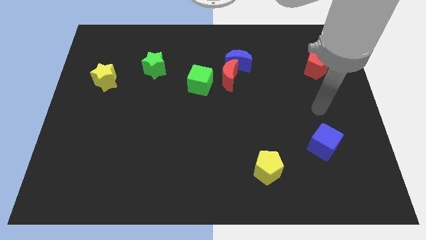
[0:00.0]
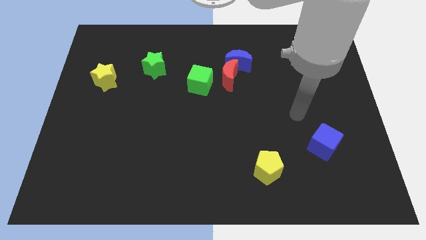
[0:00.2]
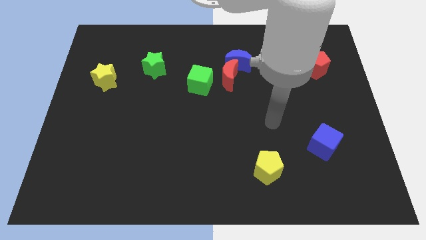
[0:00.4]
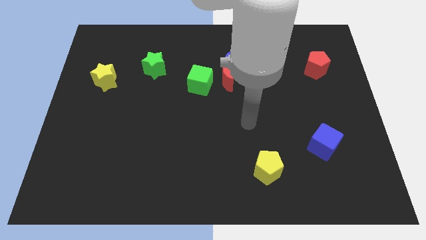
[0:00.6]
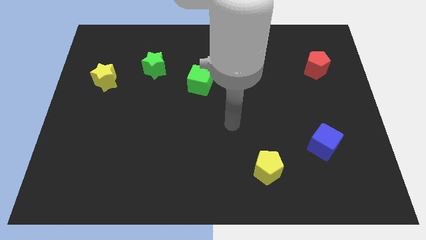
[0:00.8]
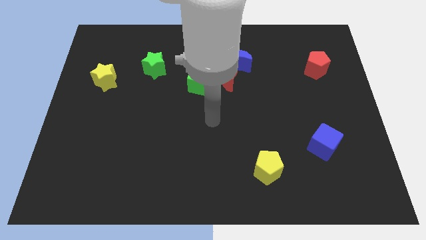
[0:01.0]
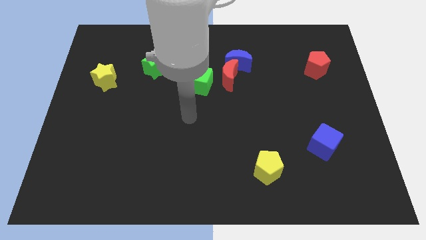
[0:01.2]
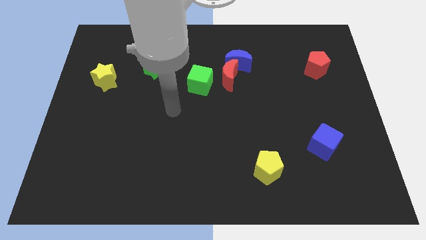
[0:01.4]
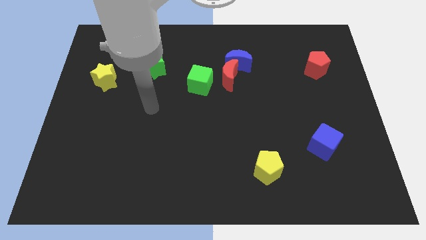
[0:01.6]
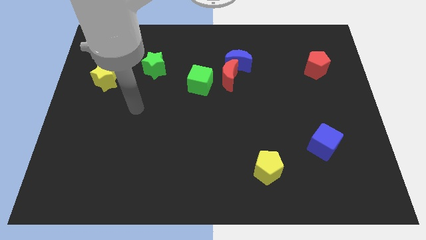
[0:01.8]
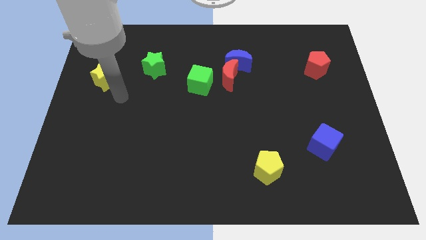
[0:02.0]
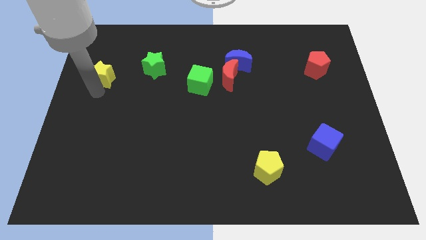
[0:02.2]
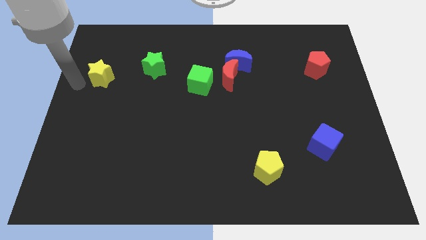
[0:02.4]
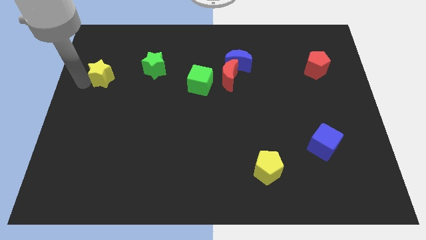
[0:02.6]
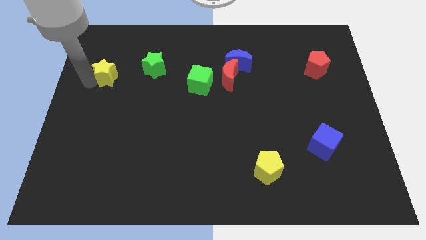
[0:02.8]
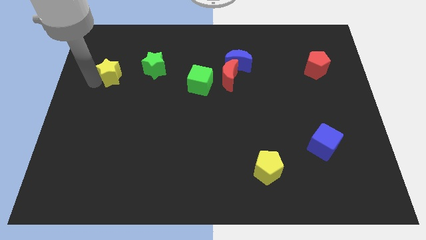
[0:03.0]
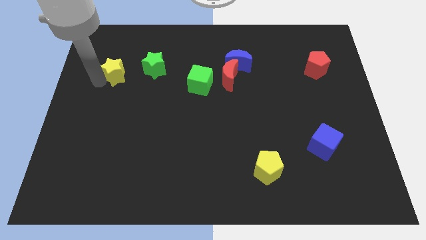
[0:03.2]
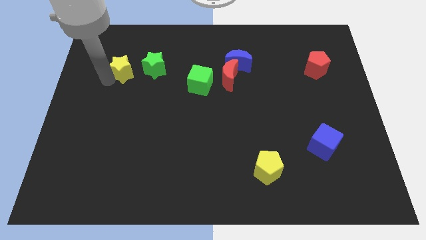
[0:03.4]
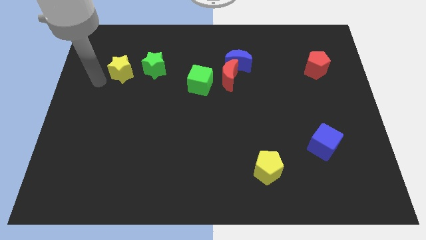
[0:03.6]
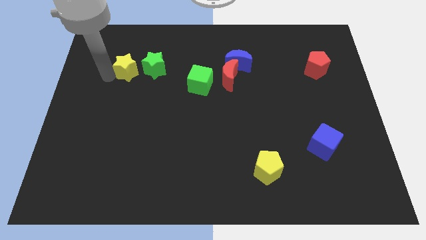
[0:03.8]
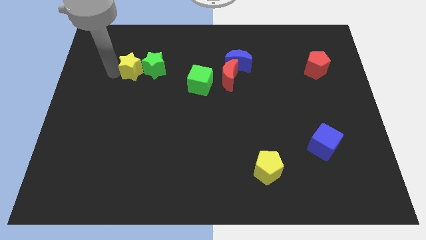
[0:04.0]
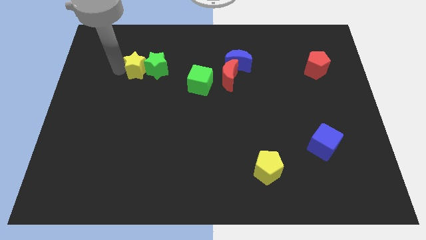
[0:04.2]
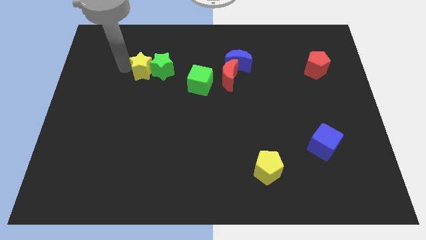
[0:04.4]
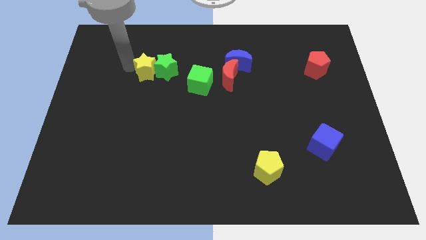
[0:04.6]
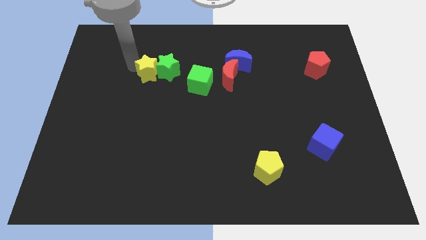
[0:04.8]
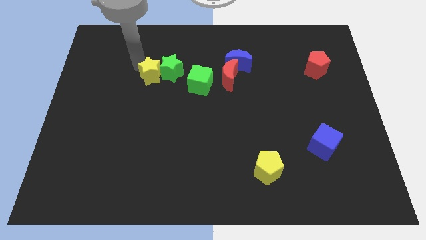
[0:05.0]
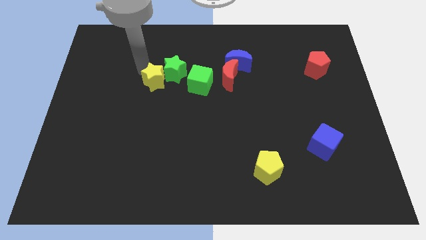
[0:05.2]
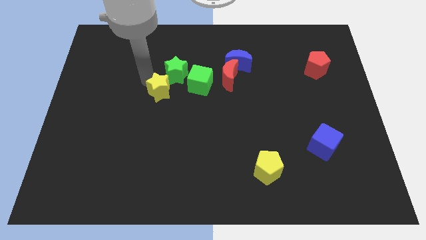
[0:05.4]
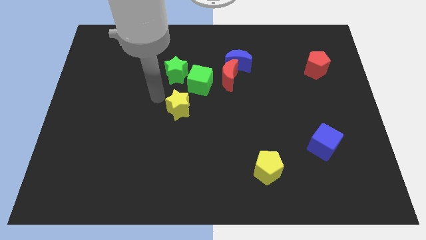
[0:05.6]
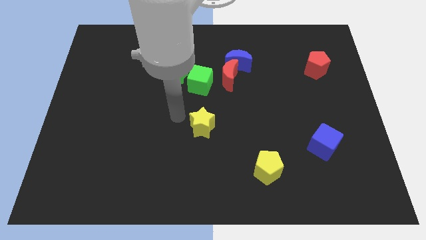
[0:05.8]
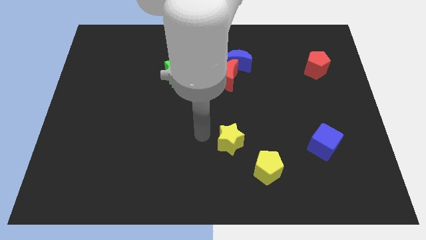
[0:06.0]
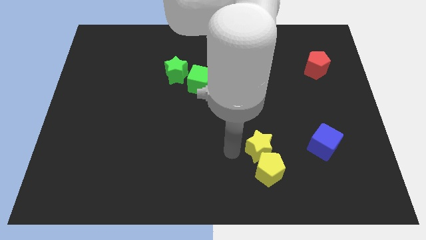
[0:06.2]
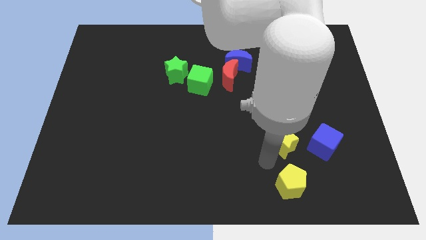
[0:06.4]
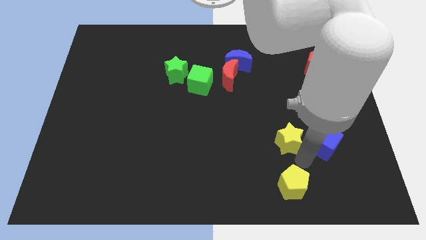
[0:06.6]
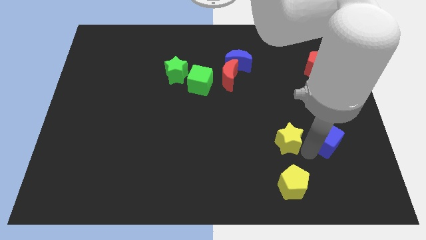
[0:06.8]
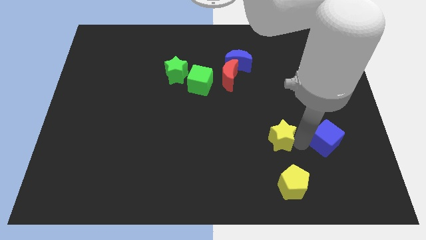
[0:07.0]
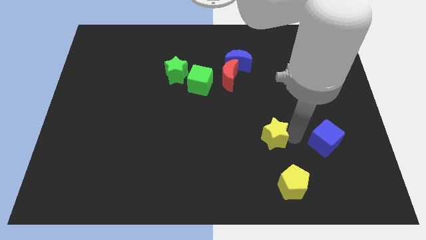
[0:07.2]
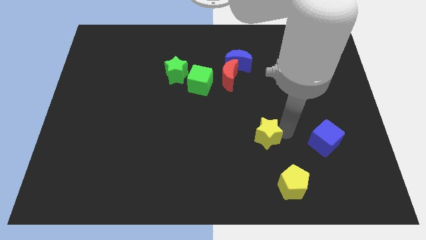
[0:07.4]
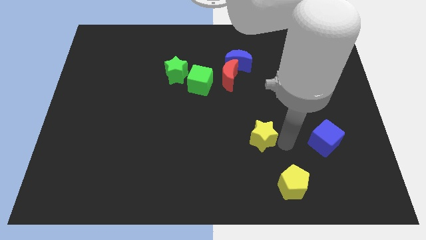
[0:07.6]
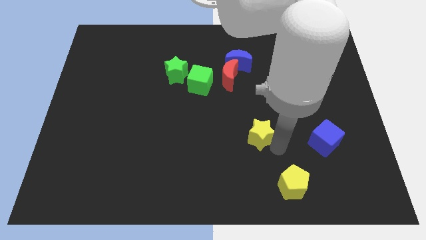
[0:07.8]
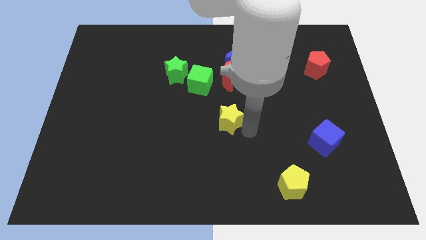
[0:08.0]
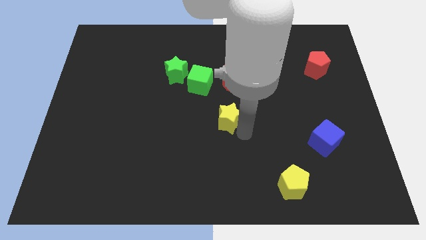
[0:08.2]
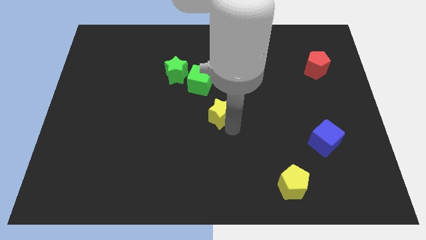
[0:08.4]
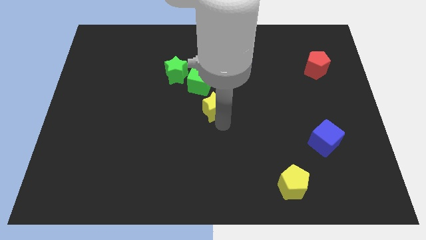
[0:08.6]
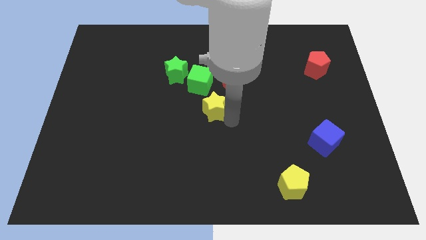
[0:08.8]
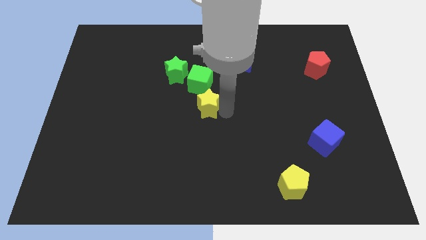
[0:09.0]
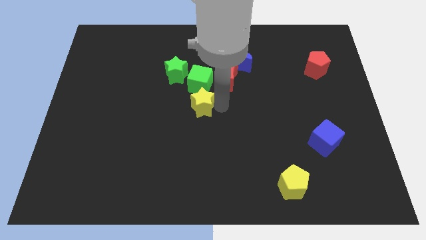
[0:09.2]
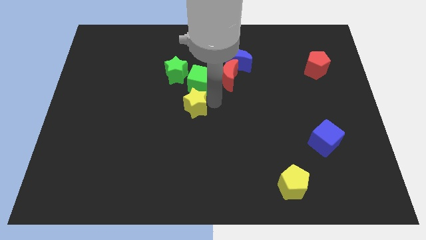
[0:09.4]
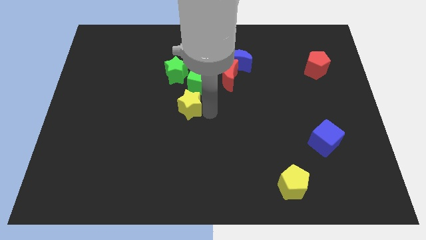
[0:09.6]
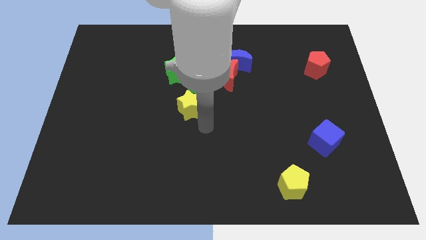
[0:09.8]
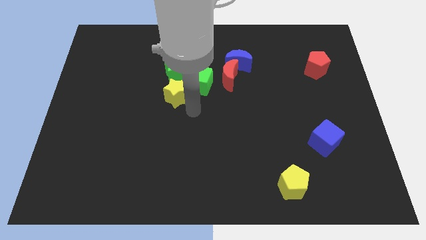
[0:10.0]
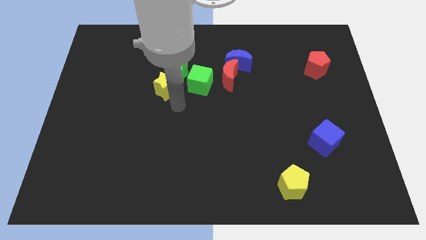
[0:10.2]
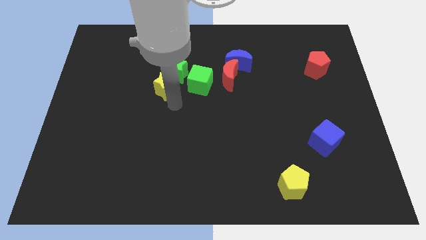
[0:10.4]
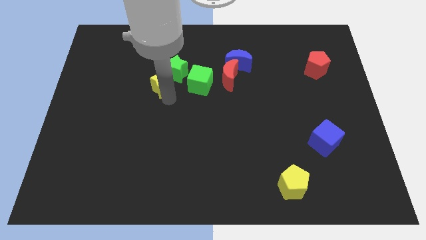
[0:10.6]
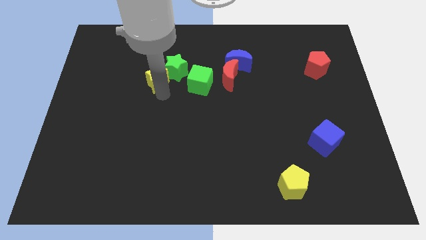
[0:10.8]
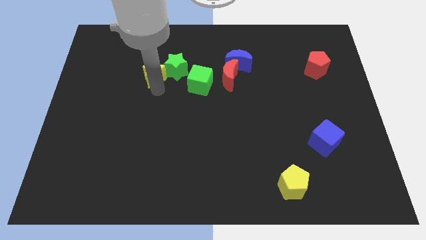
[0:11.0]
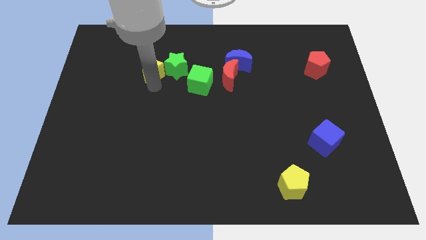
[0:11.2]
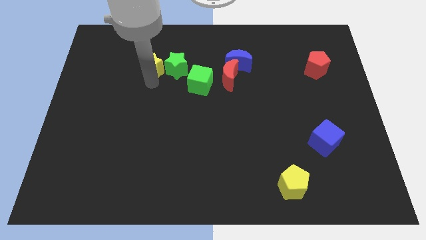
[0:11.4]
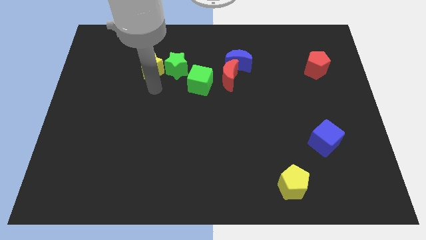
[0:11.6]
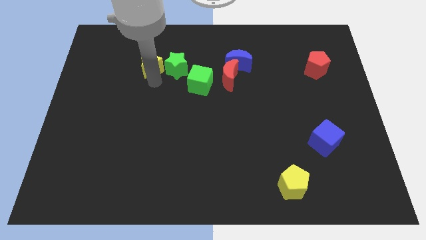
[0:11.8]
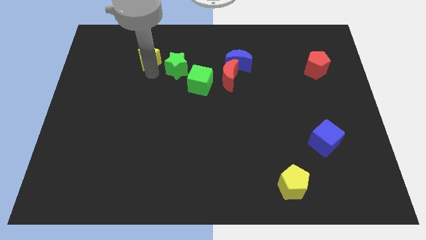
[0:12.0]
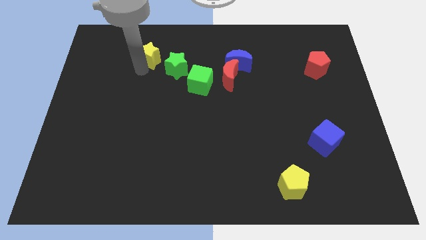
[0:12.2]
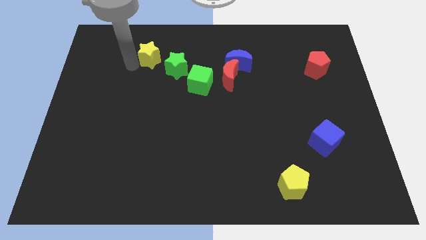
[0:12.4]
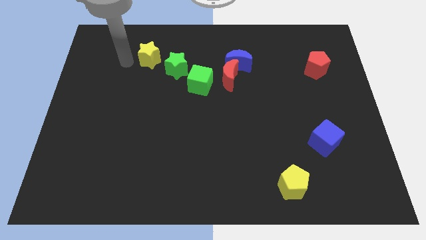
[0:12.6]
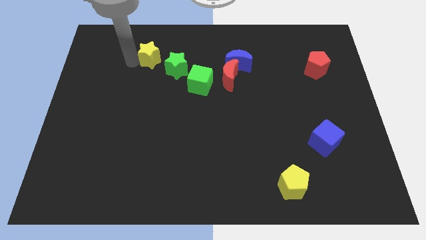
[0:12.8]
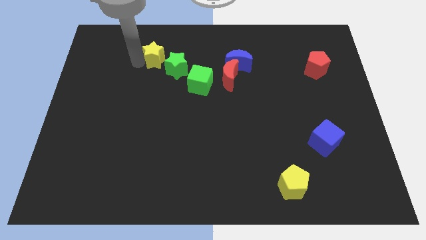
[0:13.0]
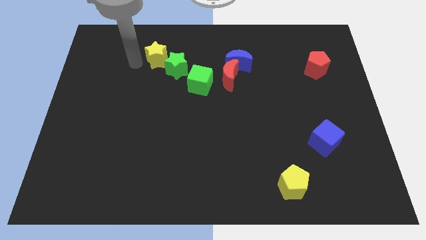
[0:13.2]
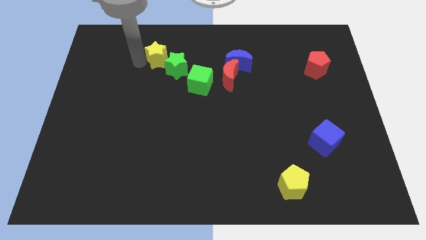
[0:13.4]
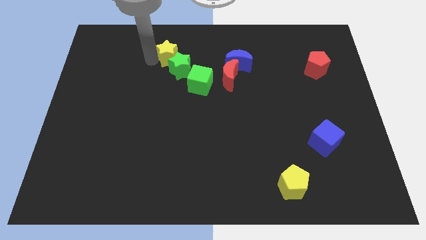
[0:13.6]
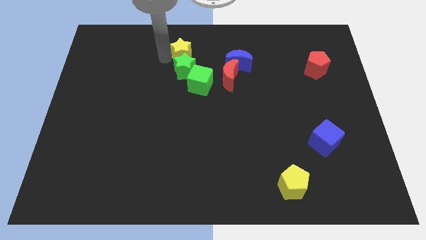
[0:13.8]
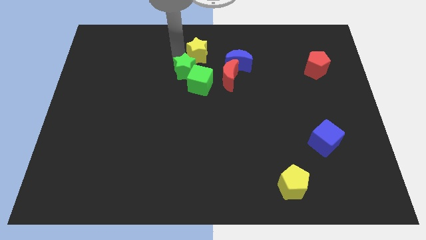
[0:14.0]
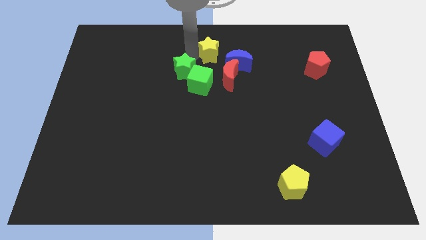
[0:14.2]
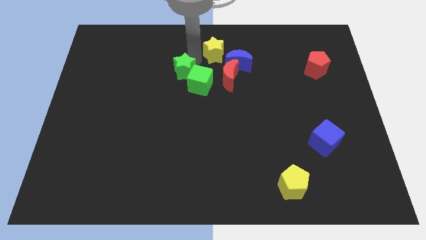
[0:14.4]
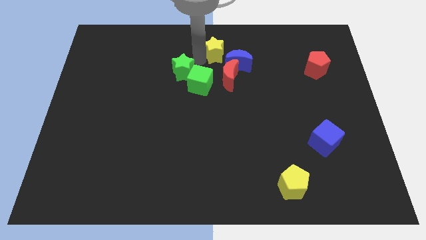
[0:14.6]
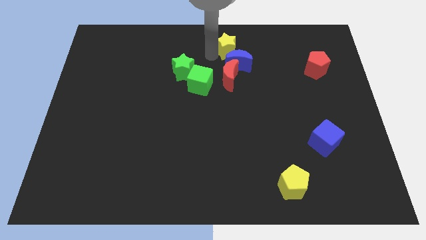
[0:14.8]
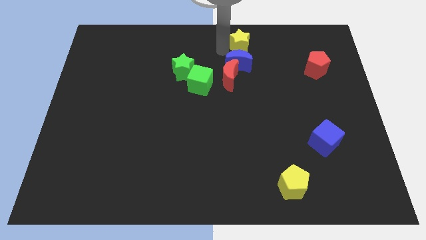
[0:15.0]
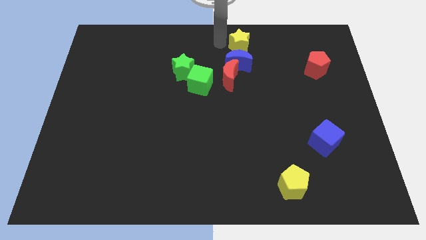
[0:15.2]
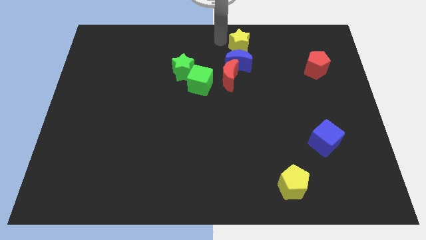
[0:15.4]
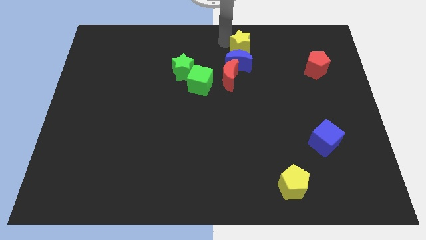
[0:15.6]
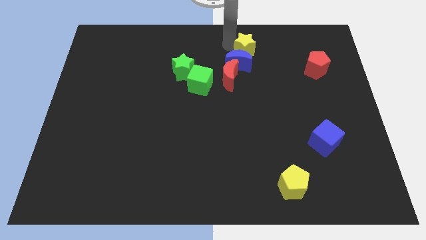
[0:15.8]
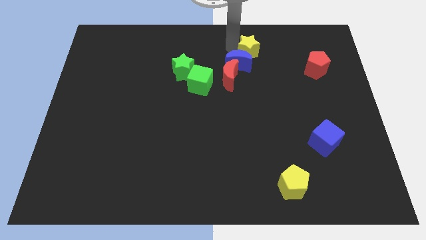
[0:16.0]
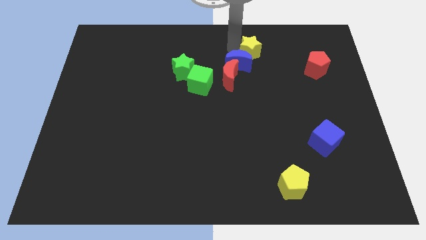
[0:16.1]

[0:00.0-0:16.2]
slide the yellow star just right of the blue moon
